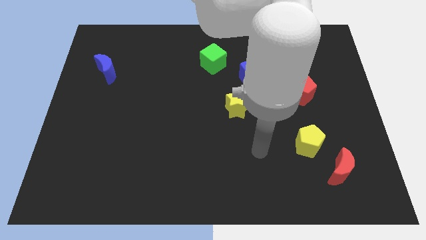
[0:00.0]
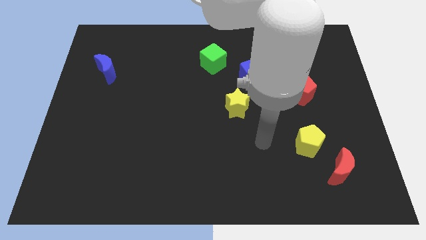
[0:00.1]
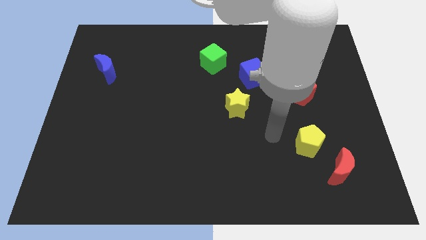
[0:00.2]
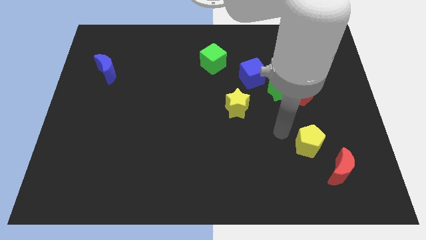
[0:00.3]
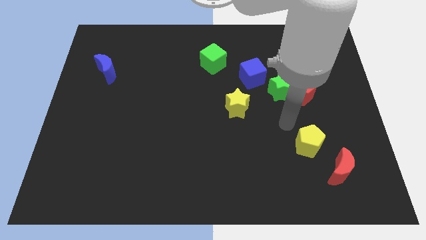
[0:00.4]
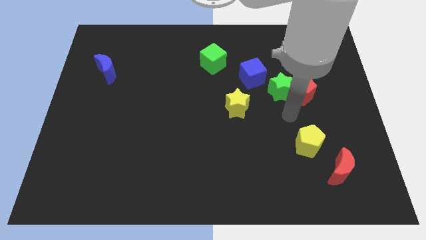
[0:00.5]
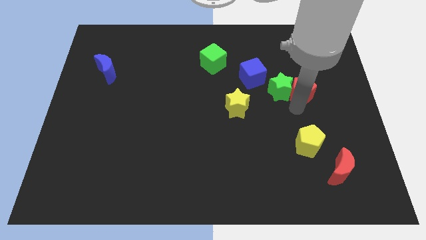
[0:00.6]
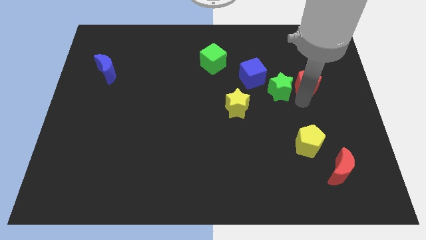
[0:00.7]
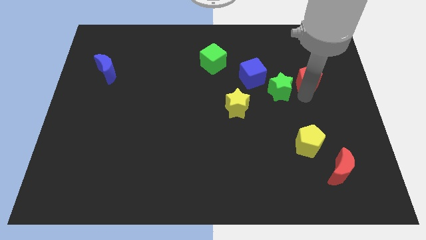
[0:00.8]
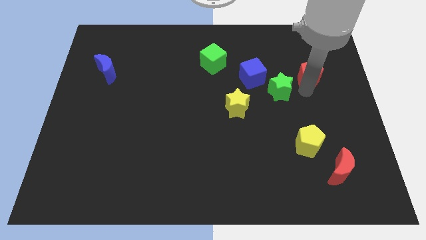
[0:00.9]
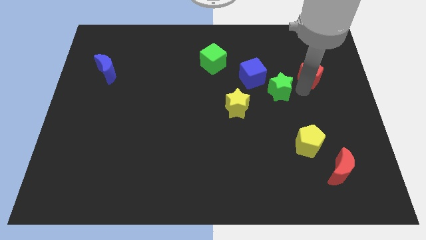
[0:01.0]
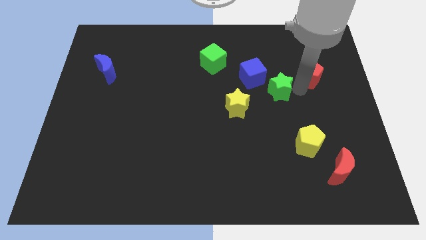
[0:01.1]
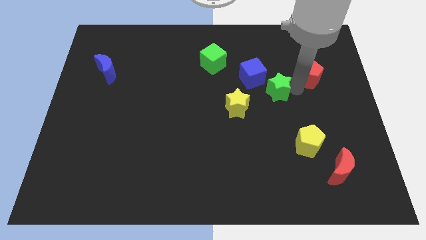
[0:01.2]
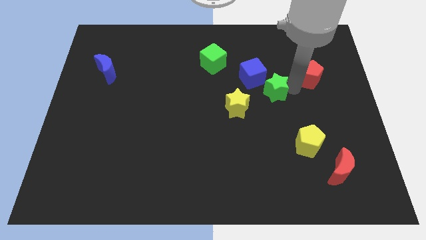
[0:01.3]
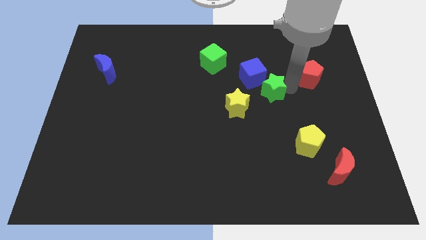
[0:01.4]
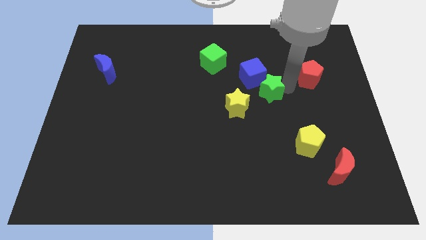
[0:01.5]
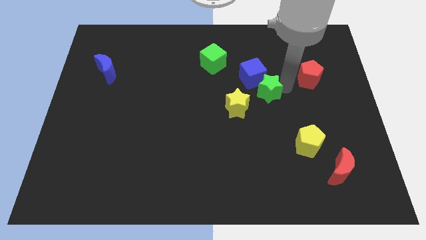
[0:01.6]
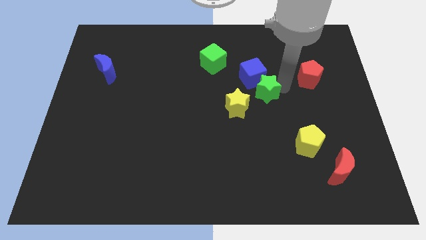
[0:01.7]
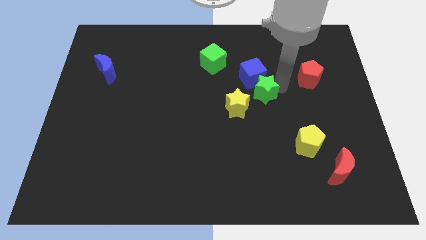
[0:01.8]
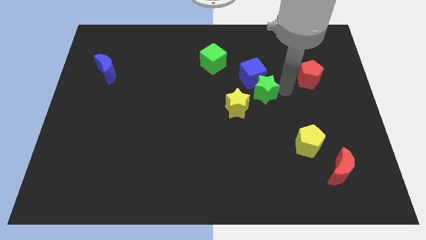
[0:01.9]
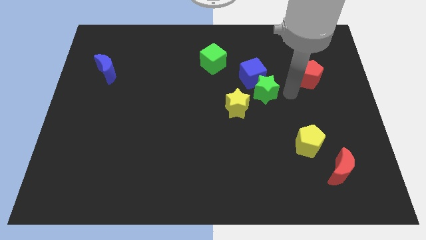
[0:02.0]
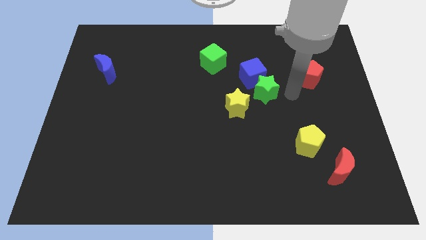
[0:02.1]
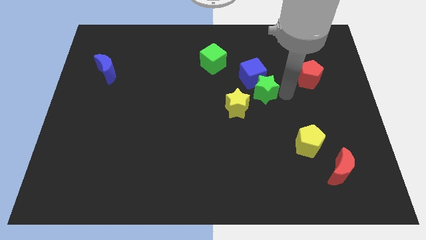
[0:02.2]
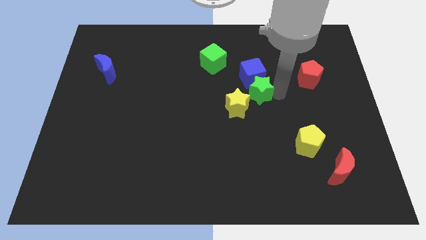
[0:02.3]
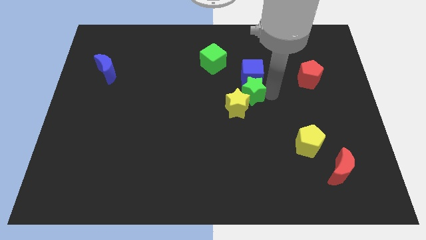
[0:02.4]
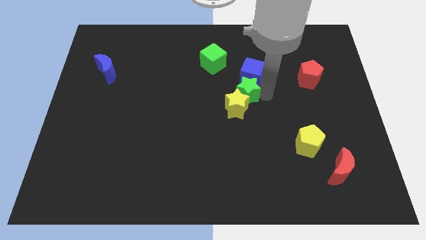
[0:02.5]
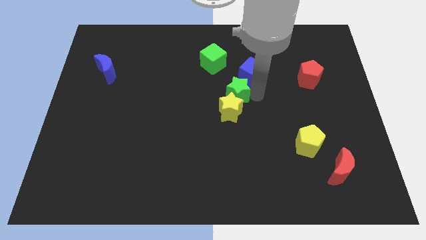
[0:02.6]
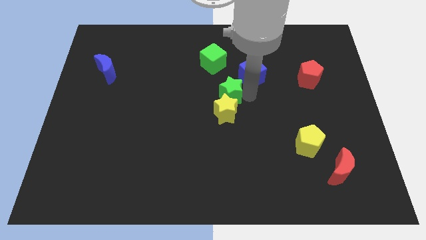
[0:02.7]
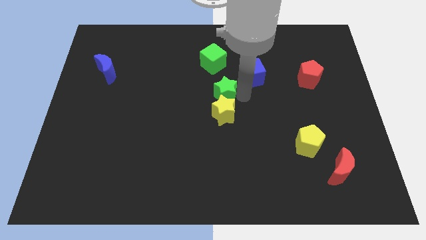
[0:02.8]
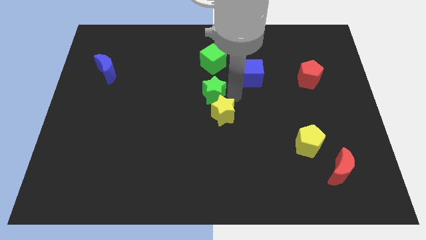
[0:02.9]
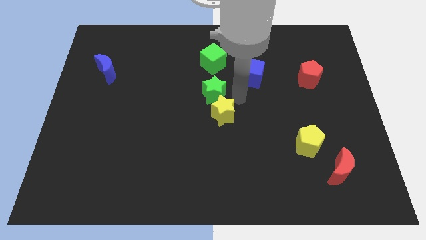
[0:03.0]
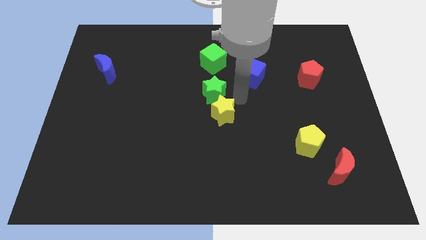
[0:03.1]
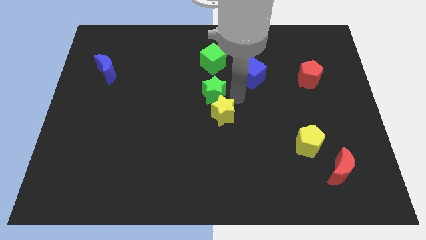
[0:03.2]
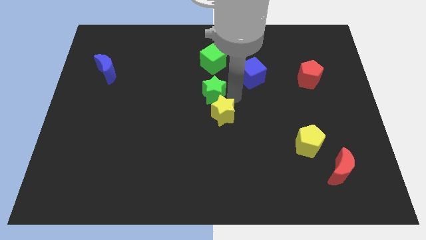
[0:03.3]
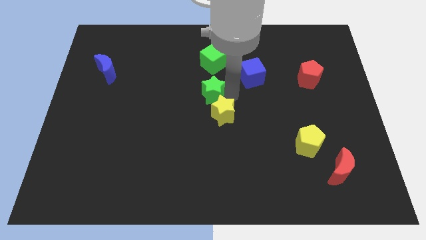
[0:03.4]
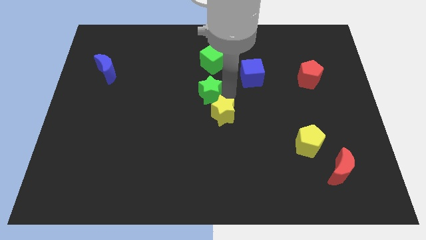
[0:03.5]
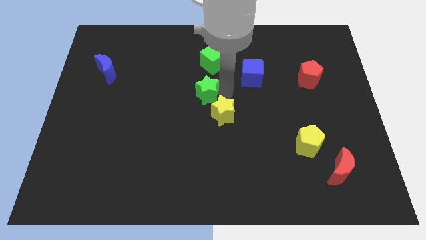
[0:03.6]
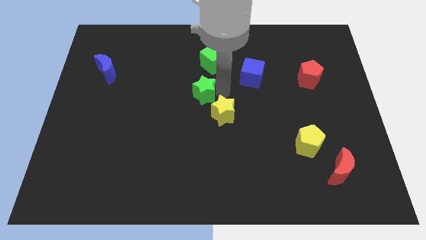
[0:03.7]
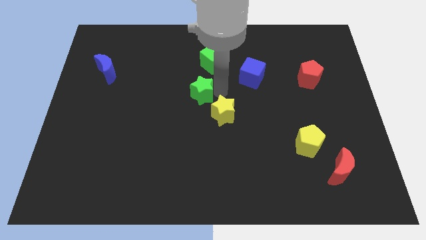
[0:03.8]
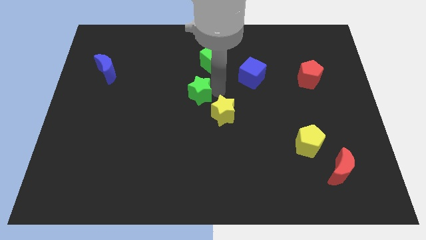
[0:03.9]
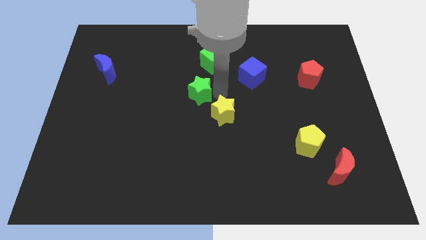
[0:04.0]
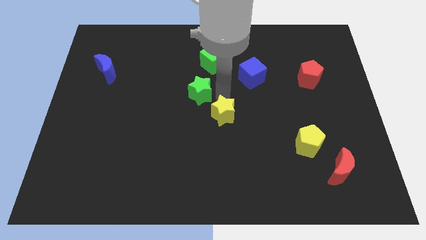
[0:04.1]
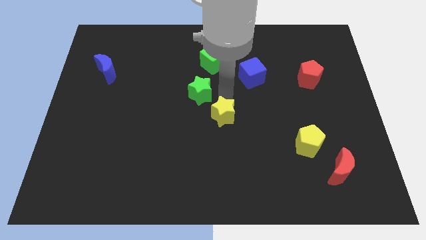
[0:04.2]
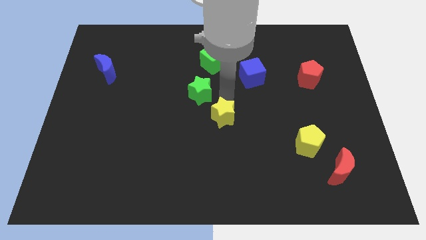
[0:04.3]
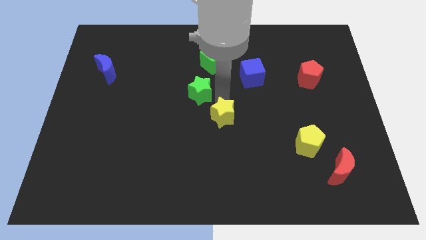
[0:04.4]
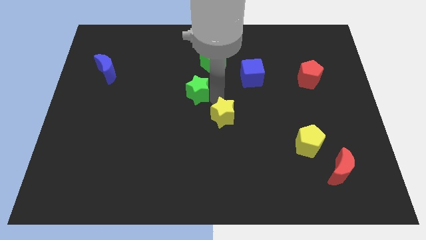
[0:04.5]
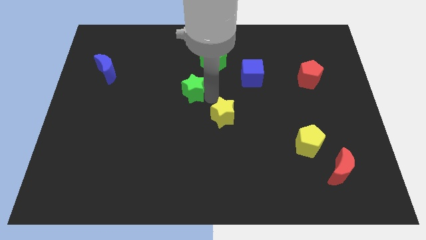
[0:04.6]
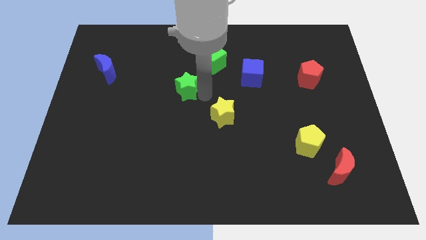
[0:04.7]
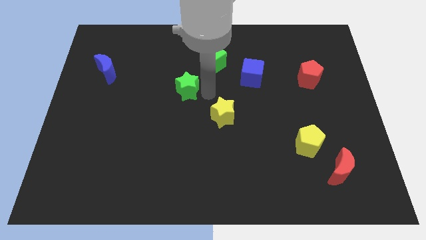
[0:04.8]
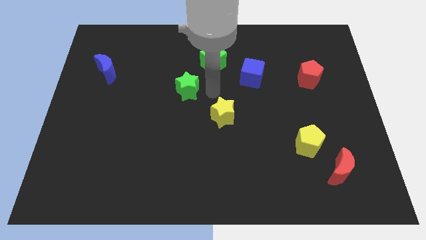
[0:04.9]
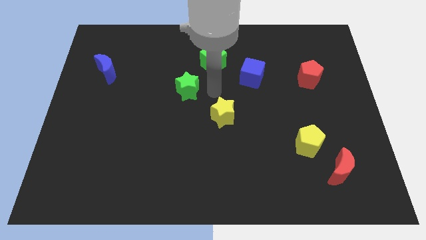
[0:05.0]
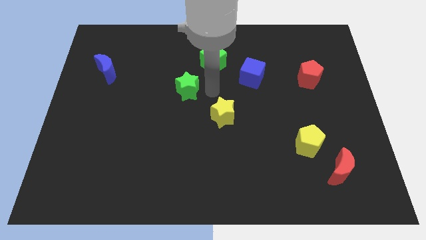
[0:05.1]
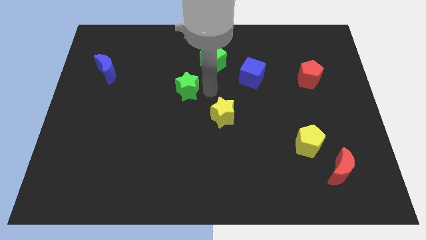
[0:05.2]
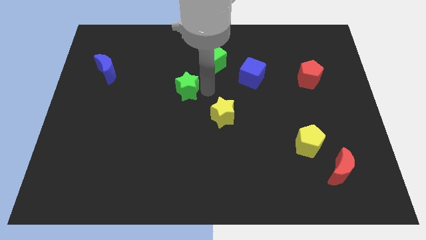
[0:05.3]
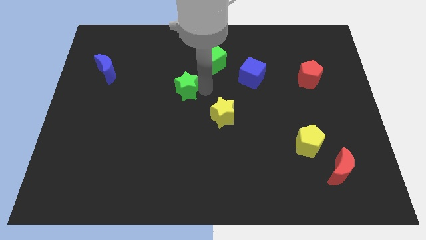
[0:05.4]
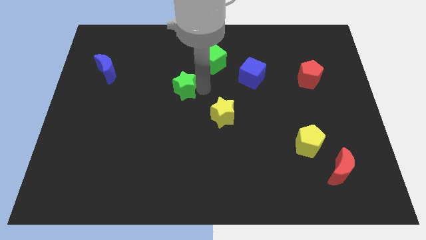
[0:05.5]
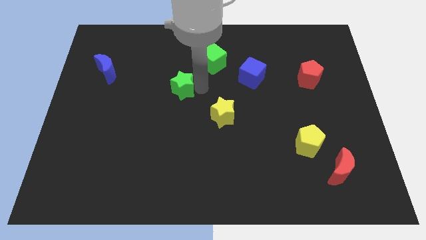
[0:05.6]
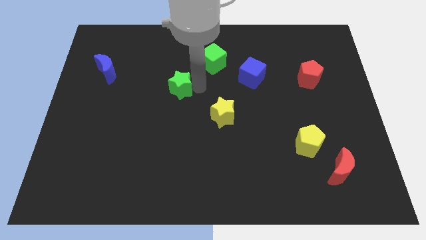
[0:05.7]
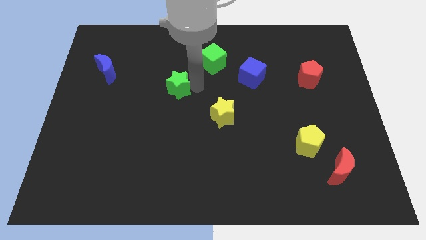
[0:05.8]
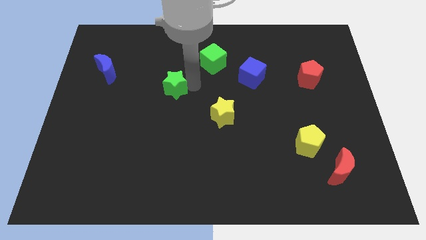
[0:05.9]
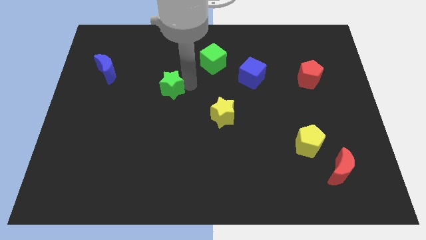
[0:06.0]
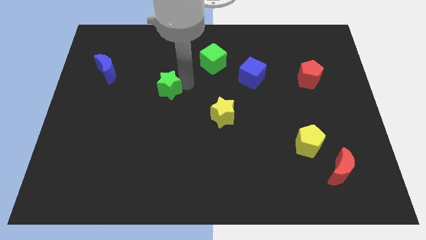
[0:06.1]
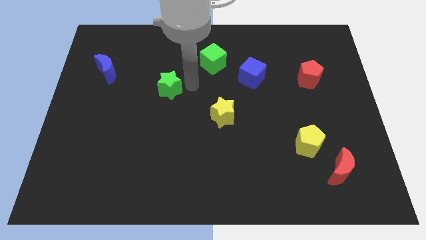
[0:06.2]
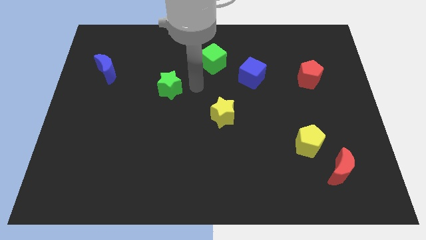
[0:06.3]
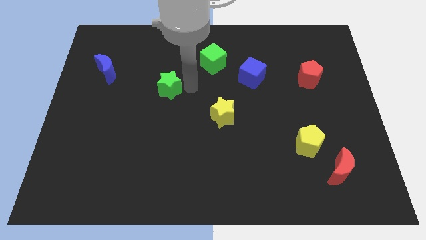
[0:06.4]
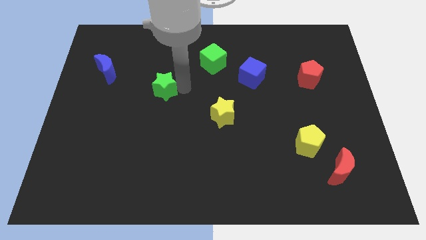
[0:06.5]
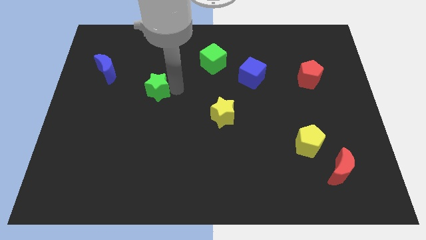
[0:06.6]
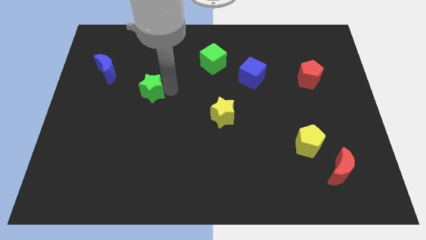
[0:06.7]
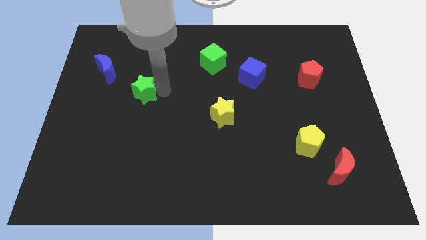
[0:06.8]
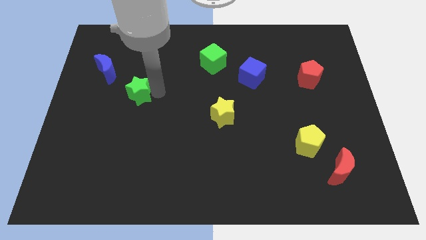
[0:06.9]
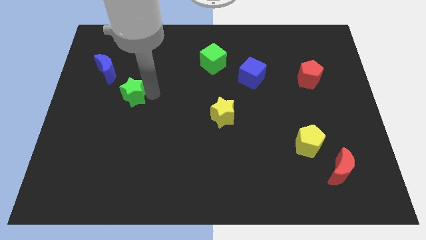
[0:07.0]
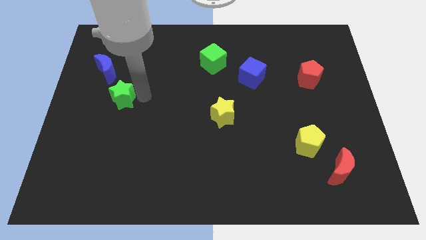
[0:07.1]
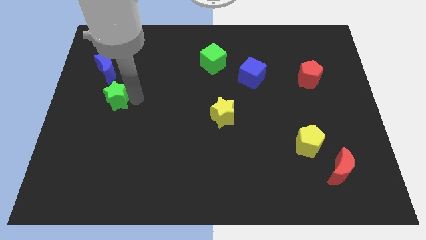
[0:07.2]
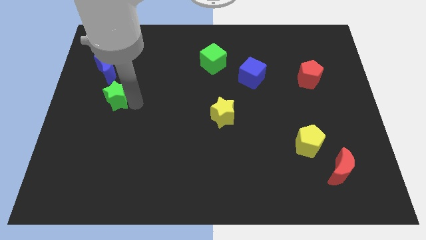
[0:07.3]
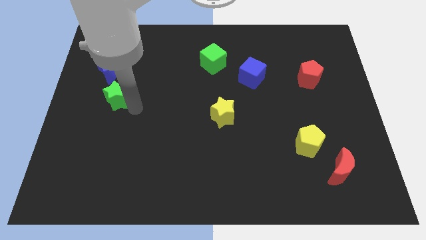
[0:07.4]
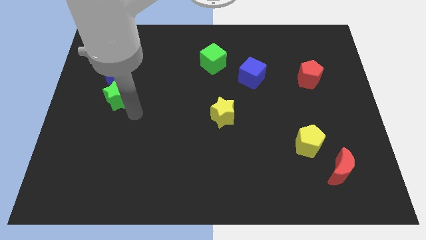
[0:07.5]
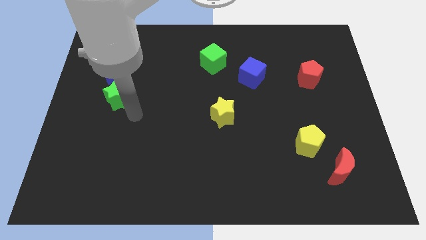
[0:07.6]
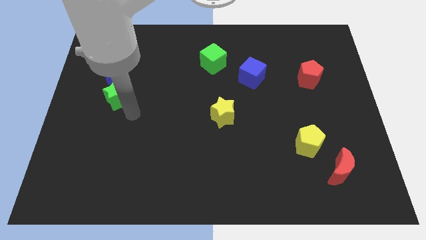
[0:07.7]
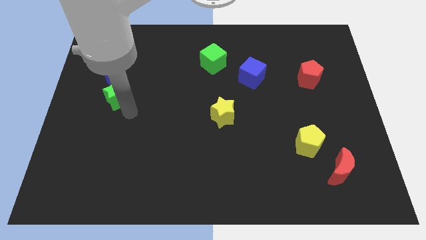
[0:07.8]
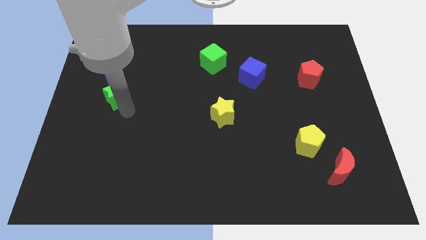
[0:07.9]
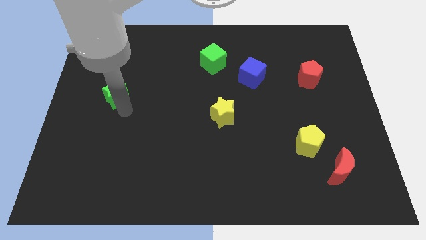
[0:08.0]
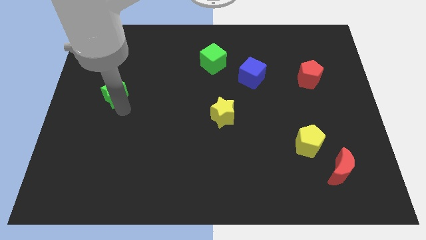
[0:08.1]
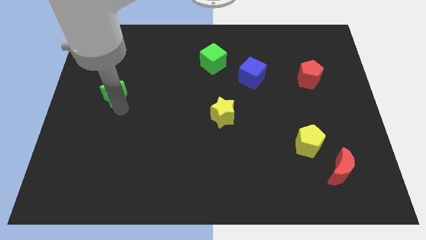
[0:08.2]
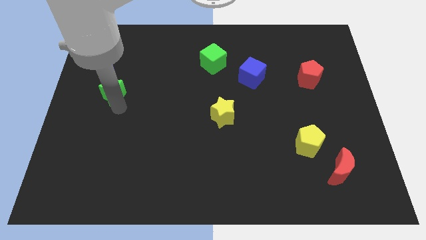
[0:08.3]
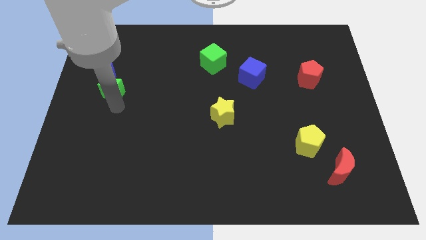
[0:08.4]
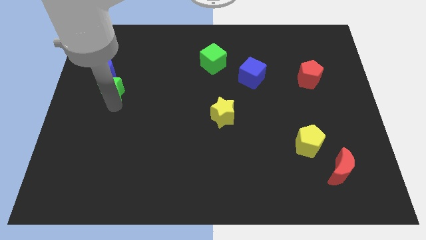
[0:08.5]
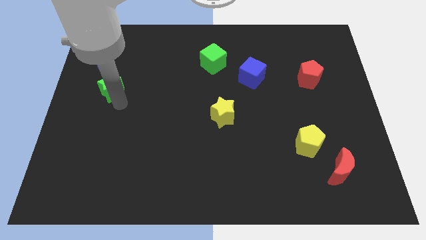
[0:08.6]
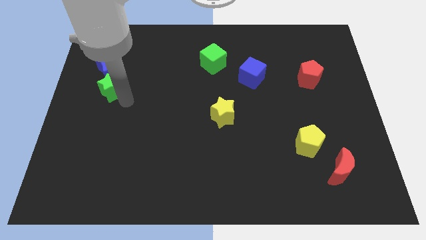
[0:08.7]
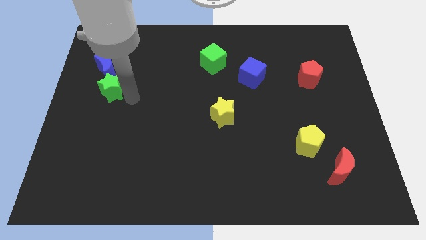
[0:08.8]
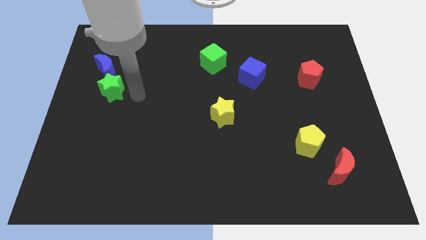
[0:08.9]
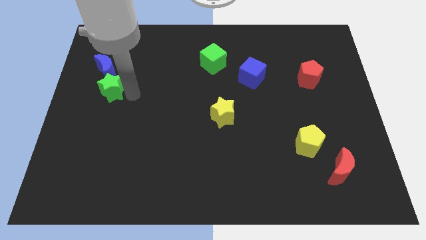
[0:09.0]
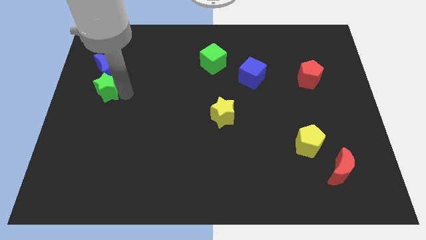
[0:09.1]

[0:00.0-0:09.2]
put the green star to the left side
